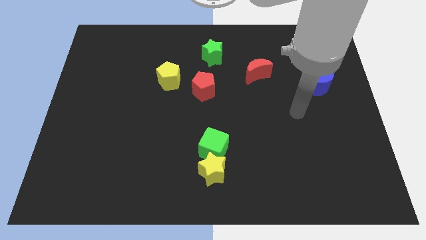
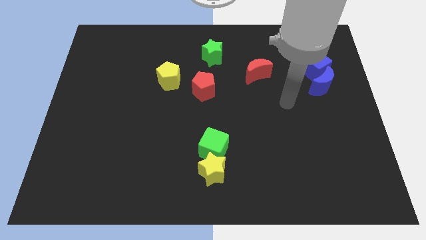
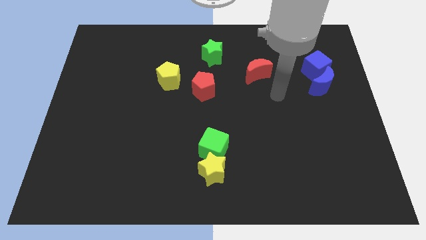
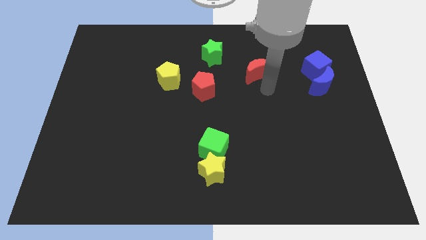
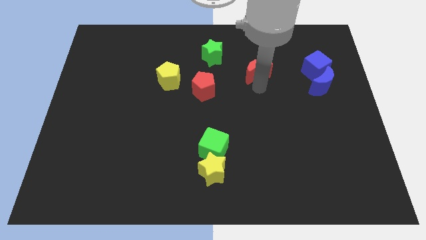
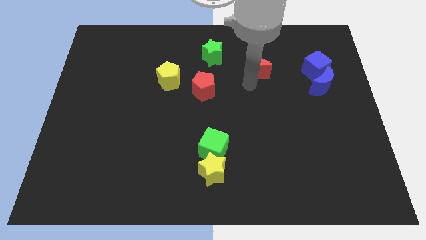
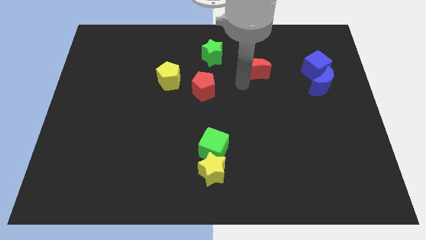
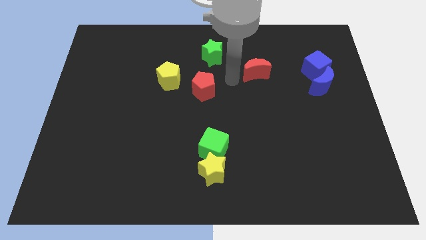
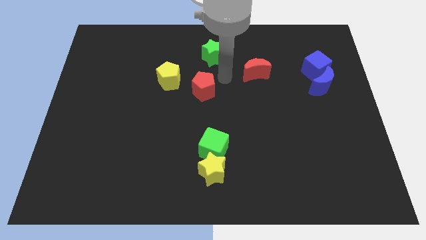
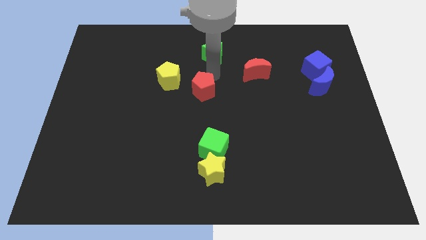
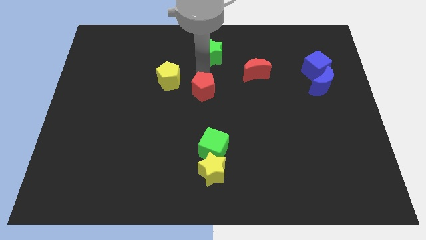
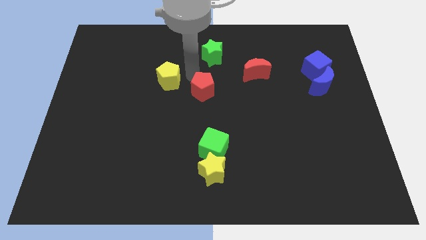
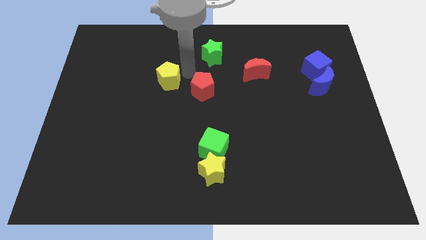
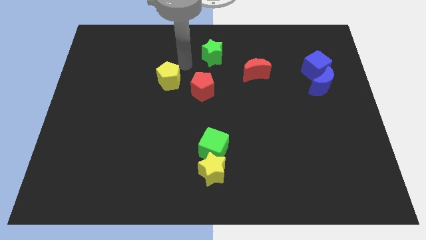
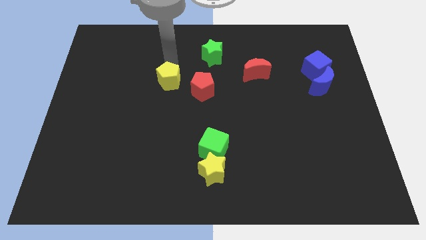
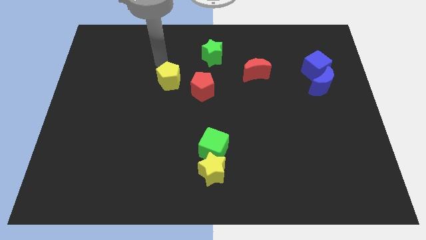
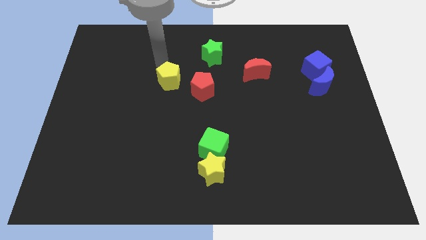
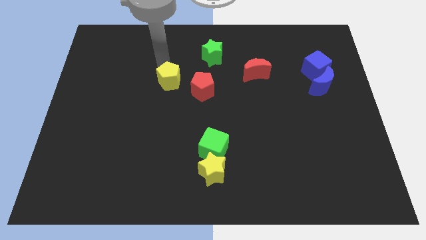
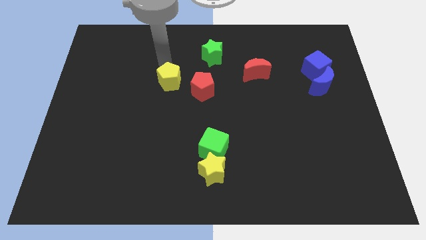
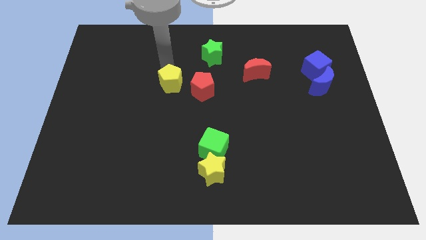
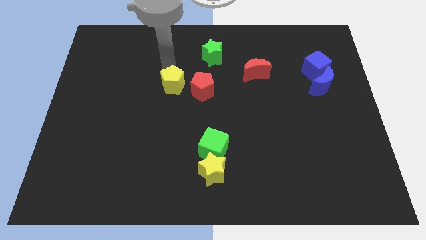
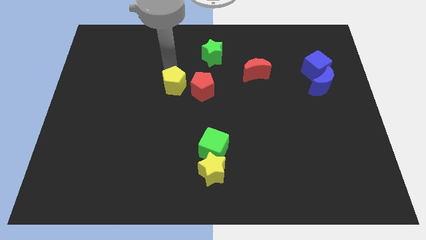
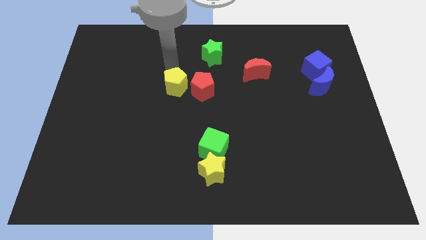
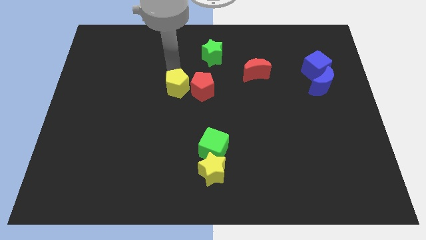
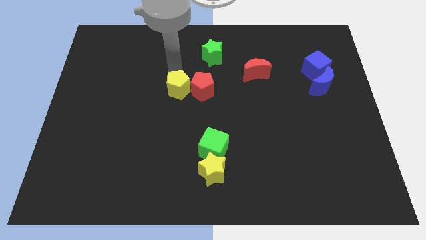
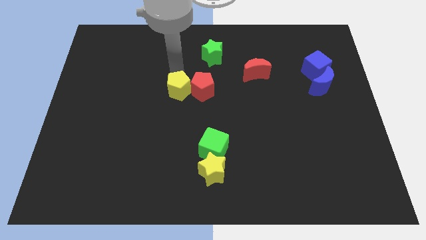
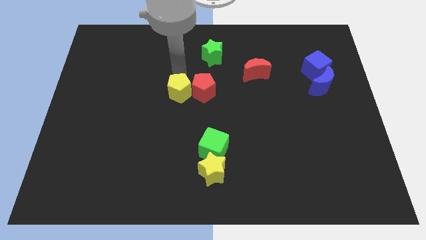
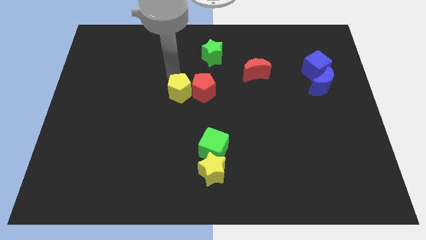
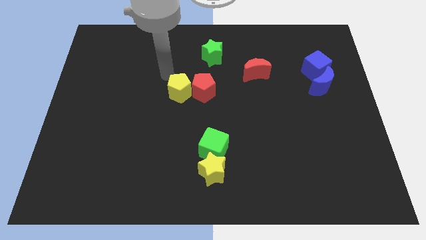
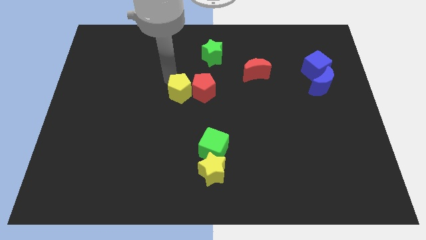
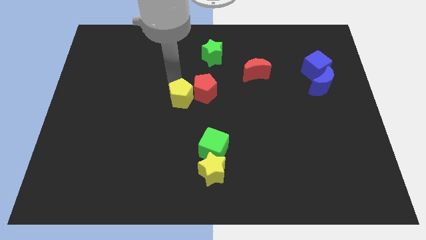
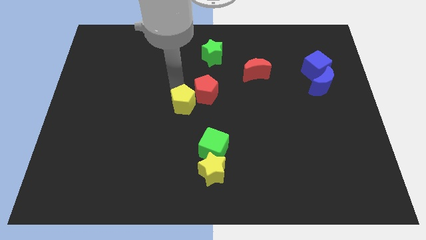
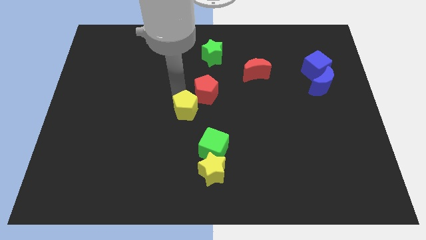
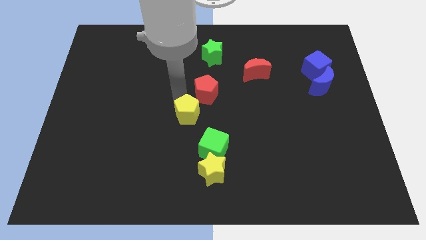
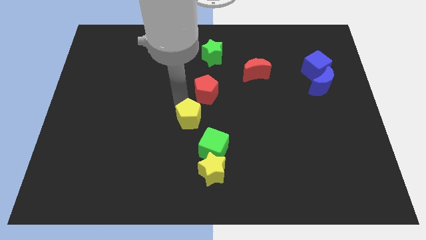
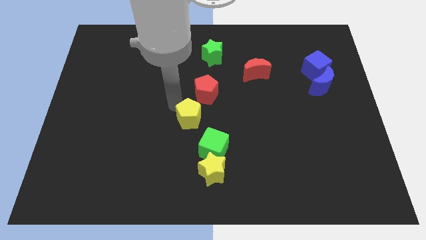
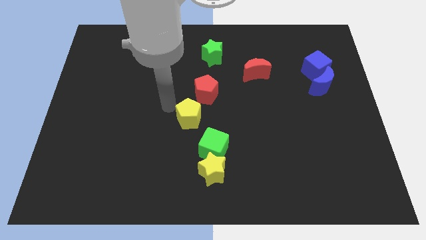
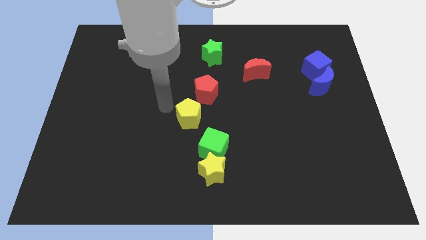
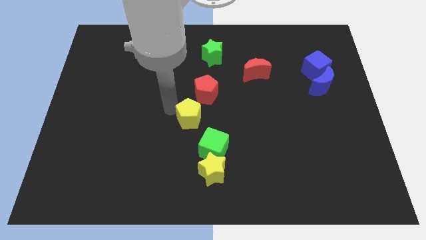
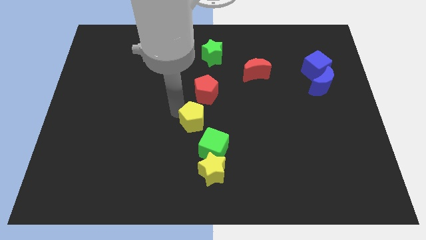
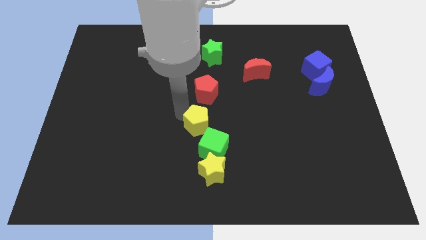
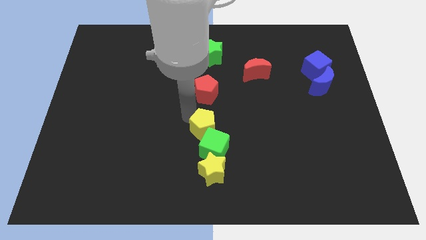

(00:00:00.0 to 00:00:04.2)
push the yellow pentagon to the green cube

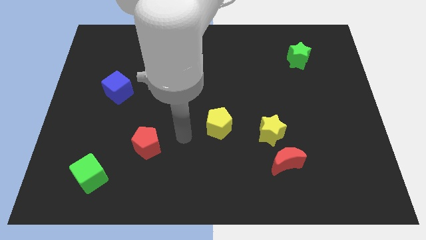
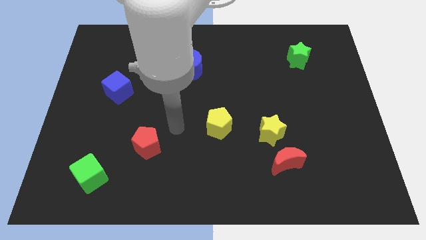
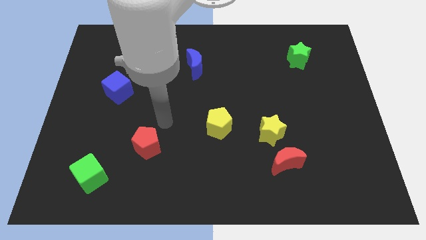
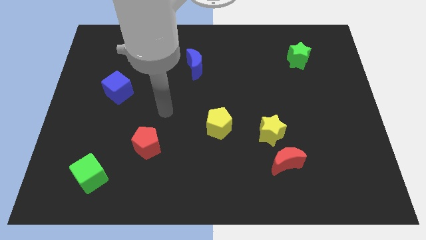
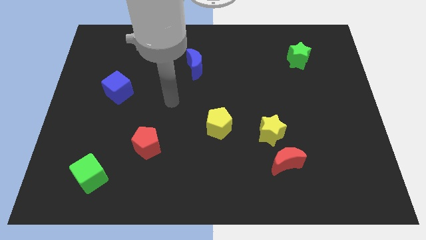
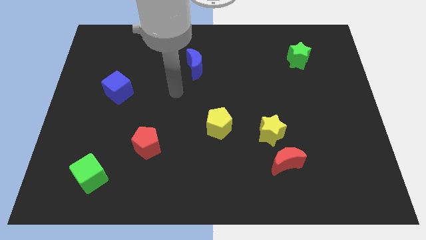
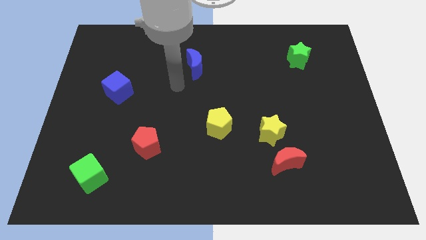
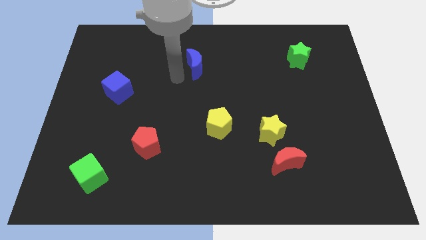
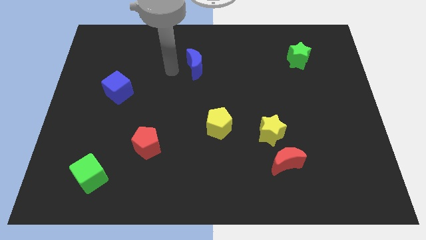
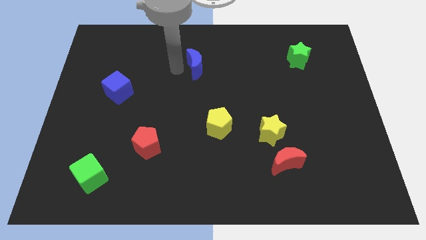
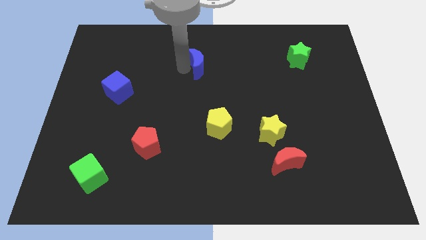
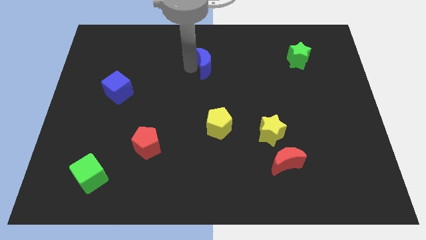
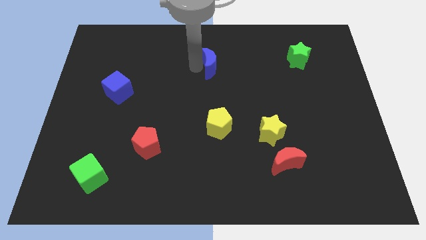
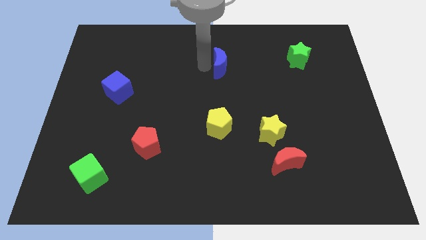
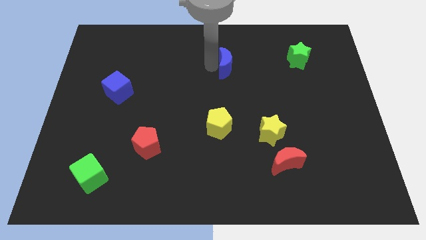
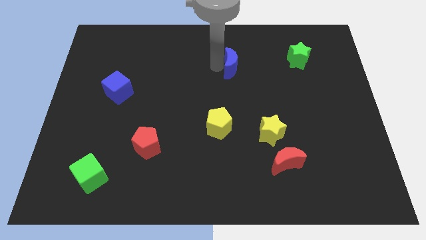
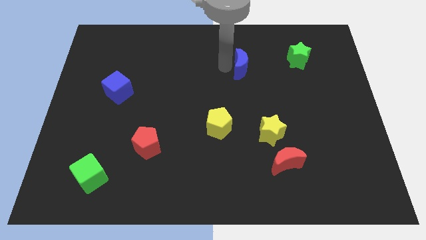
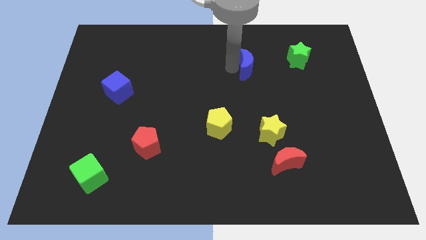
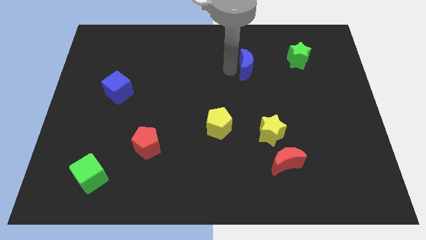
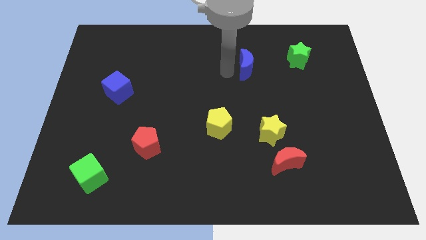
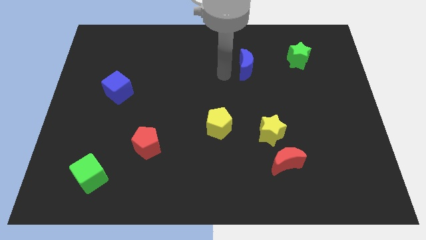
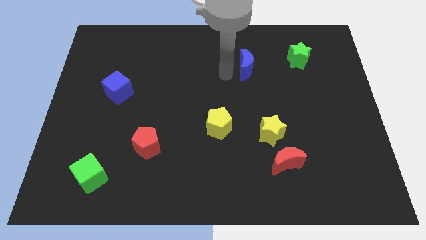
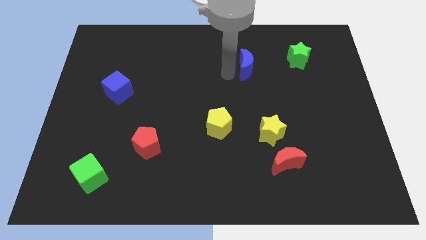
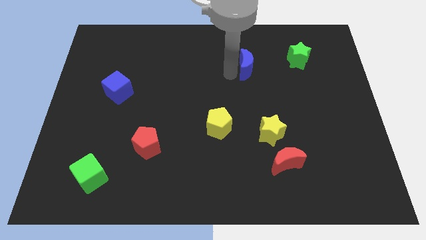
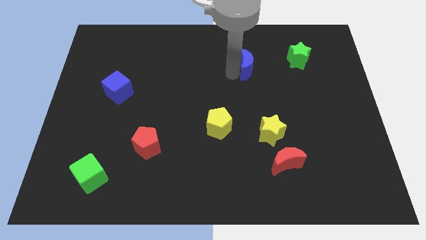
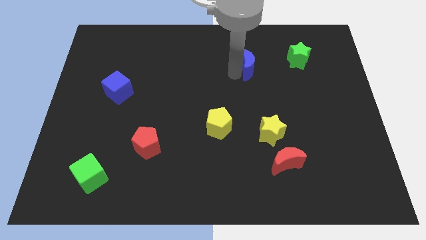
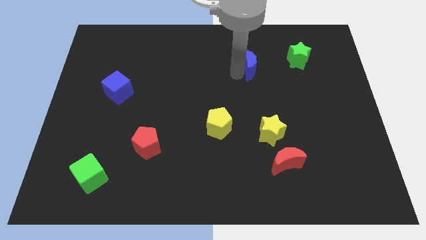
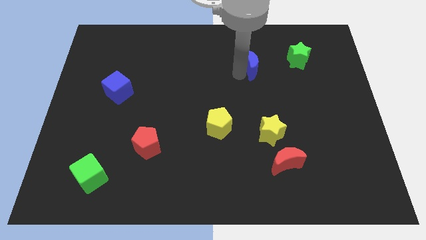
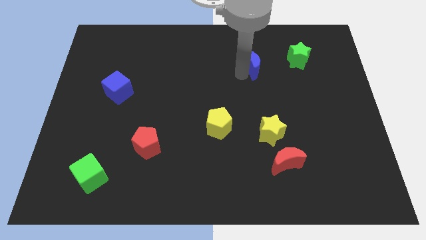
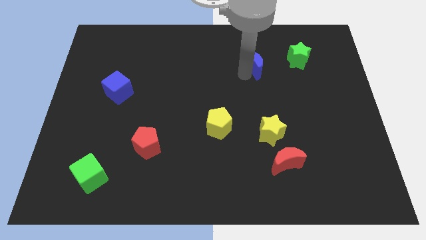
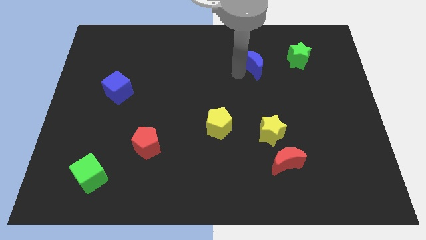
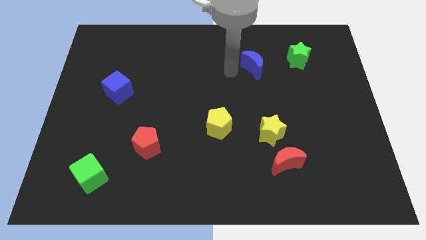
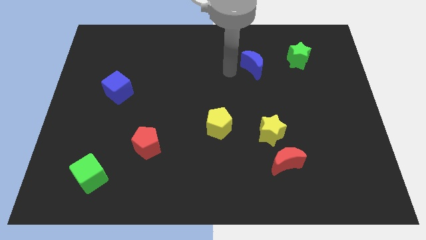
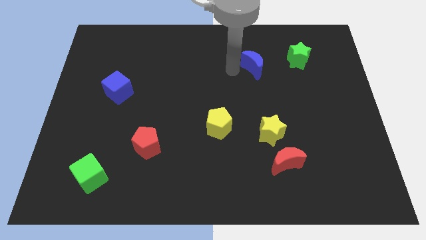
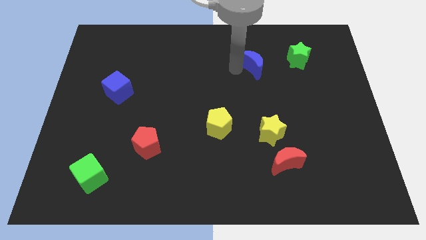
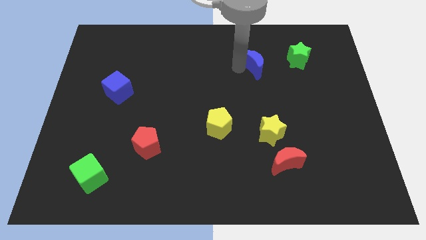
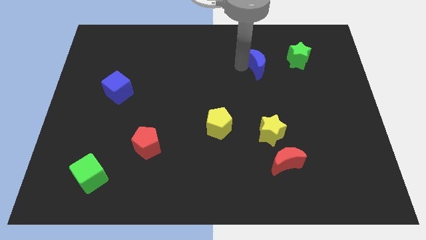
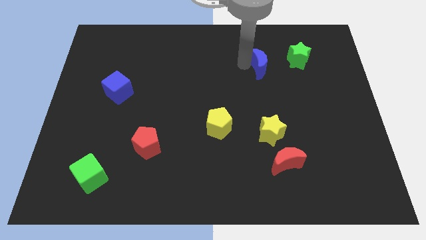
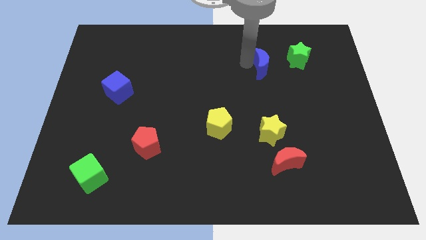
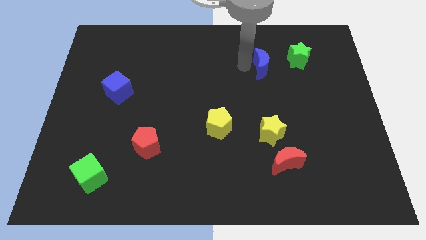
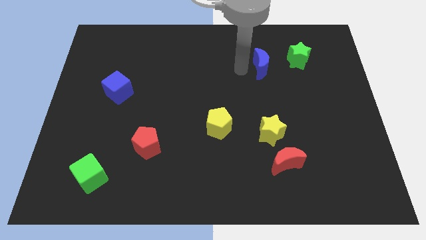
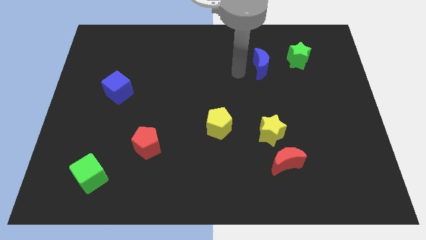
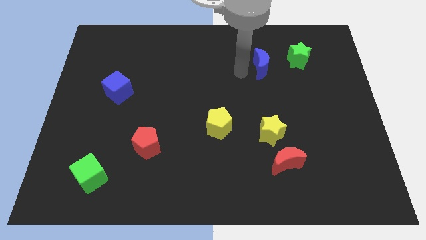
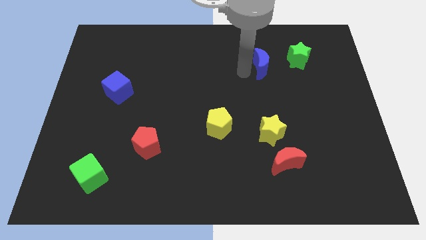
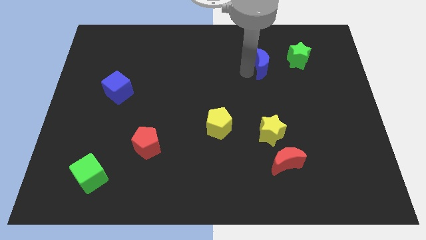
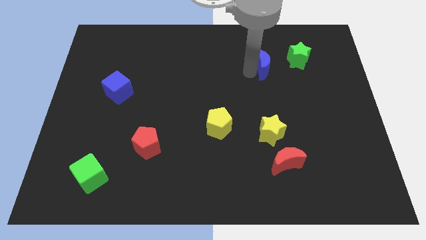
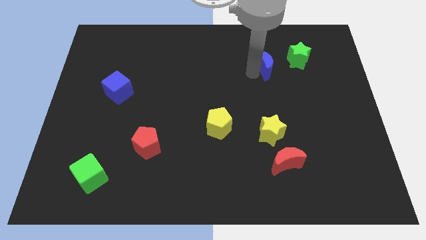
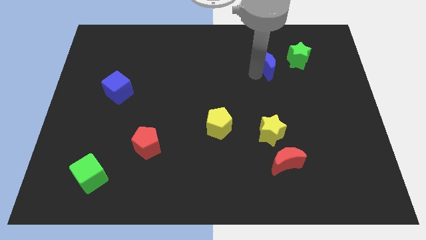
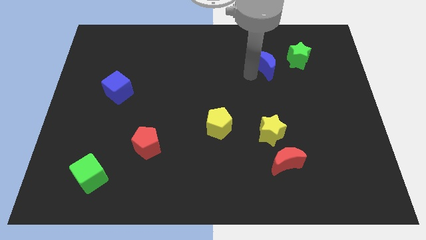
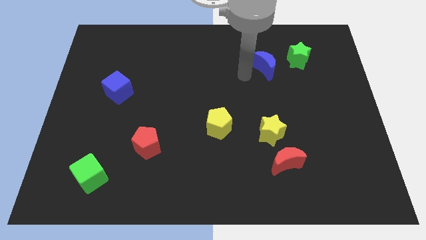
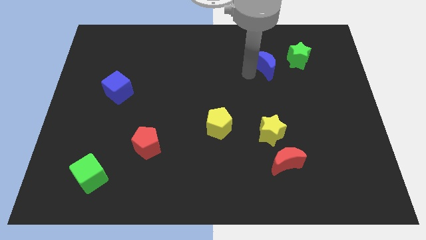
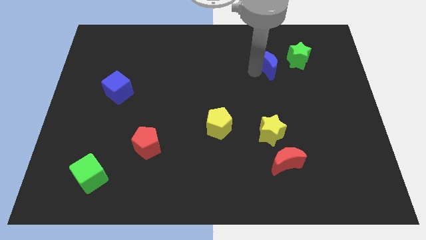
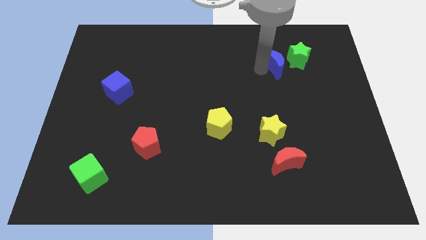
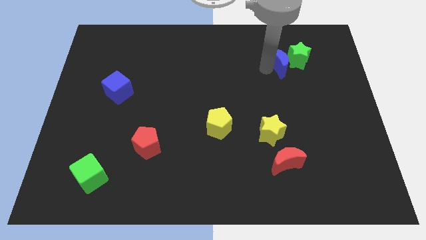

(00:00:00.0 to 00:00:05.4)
push the blue moon next to the green star
